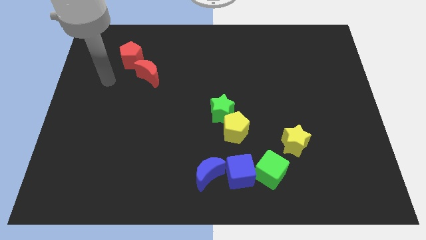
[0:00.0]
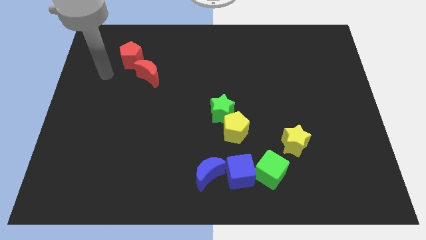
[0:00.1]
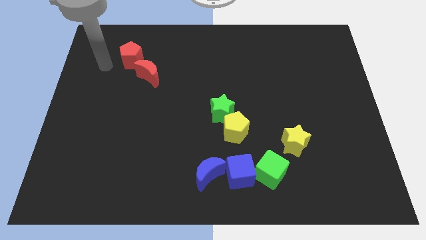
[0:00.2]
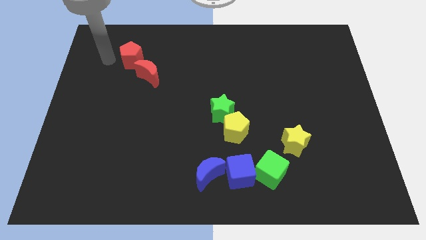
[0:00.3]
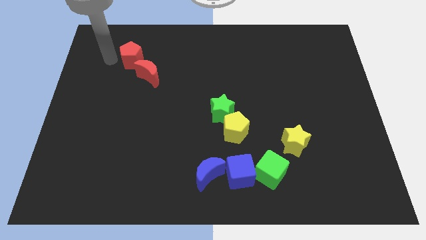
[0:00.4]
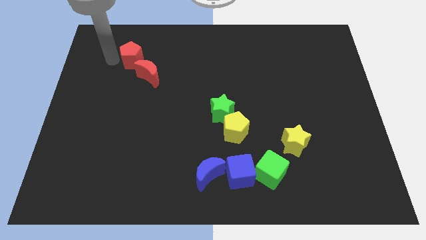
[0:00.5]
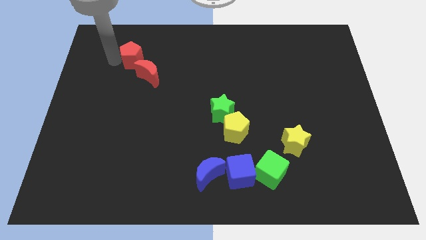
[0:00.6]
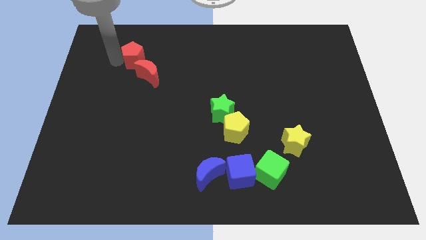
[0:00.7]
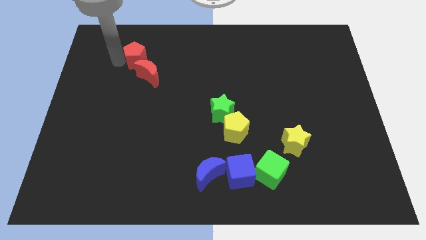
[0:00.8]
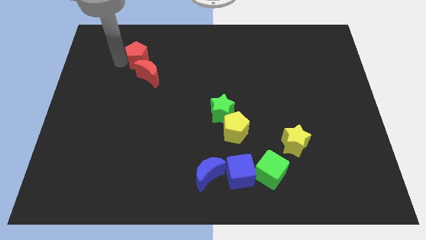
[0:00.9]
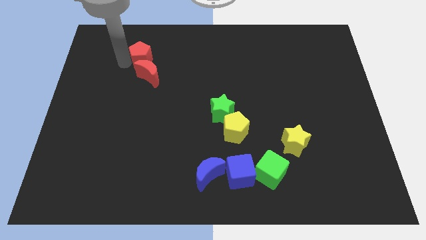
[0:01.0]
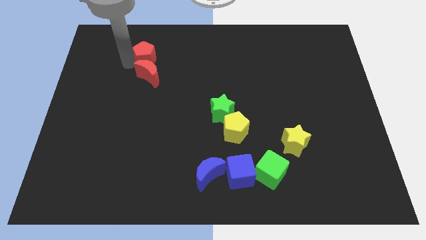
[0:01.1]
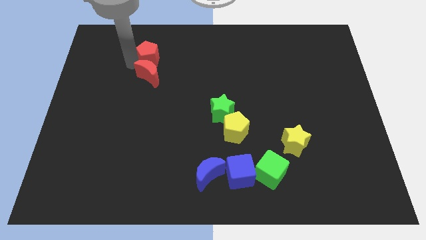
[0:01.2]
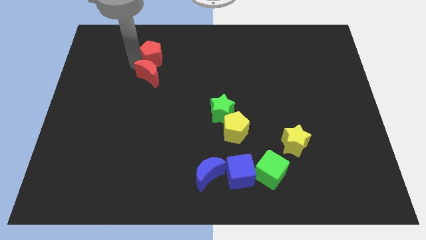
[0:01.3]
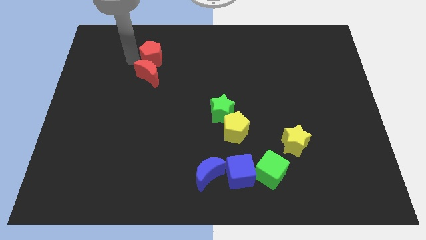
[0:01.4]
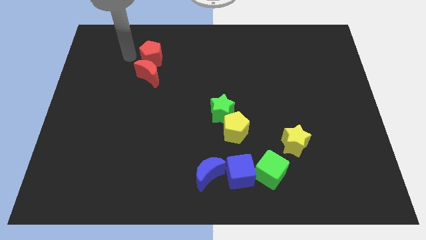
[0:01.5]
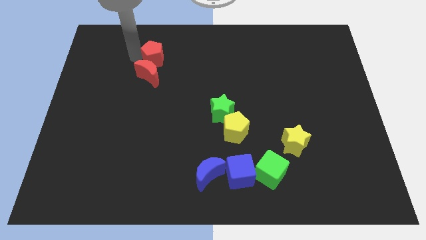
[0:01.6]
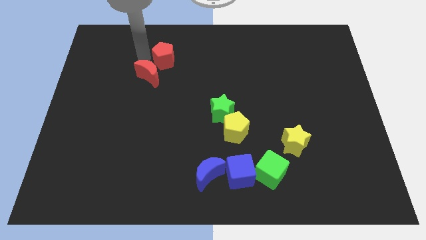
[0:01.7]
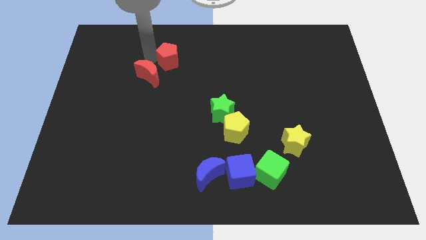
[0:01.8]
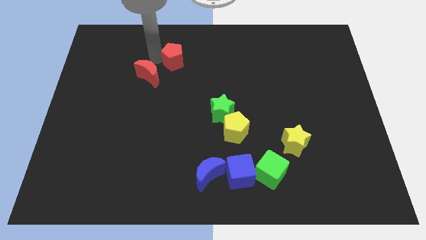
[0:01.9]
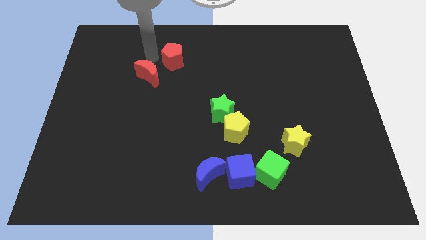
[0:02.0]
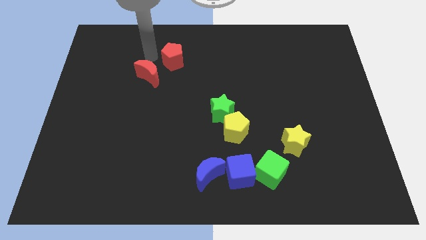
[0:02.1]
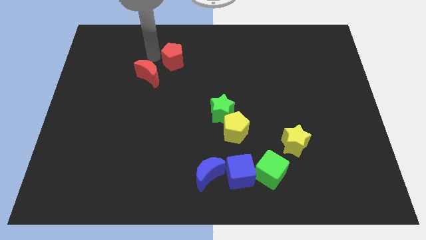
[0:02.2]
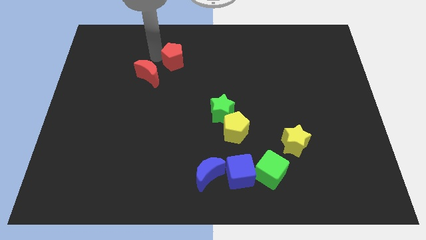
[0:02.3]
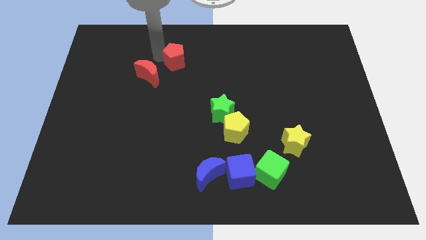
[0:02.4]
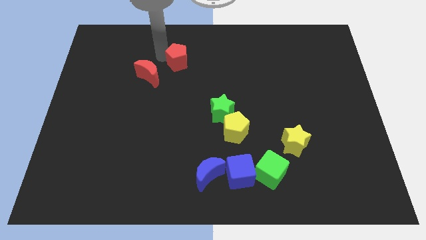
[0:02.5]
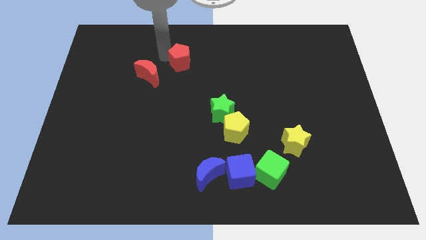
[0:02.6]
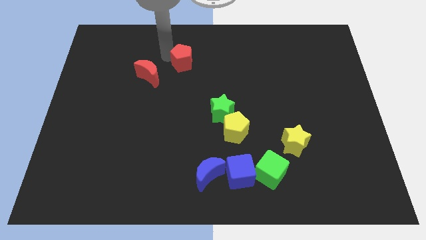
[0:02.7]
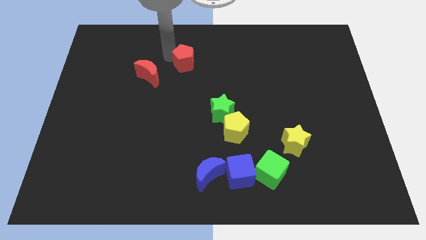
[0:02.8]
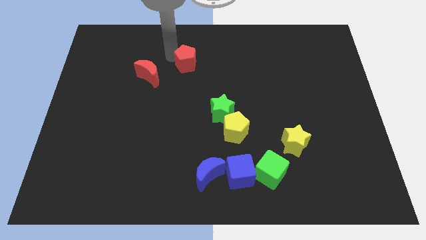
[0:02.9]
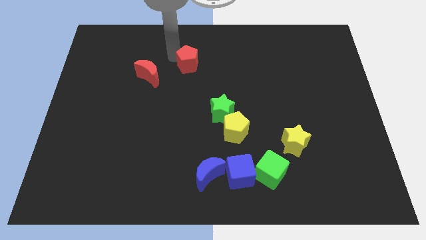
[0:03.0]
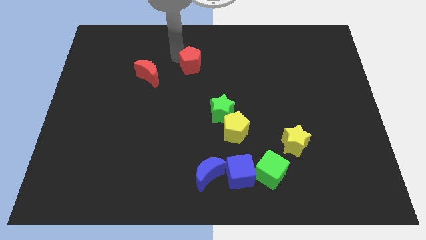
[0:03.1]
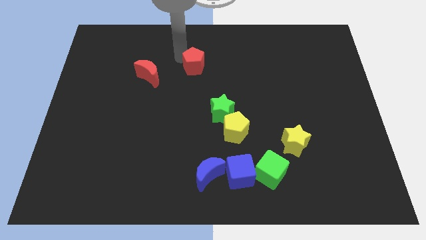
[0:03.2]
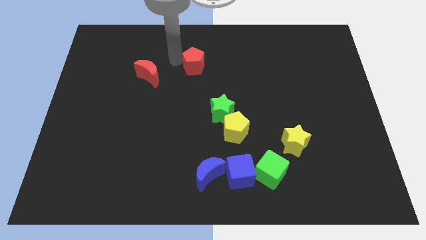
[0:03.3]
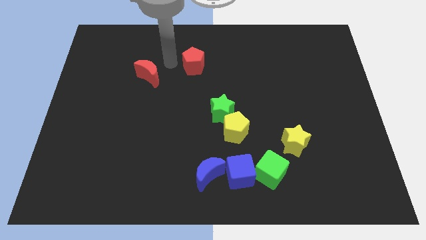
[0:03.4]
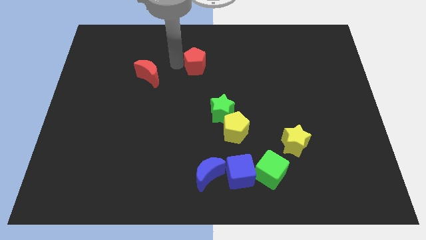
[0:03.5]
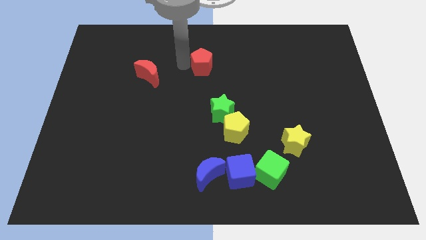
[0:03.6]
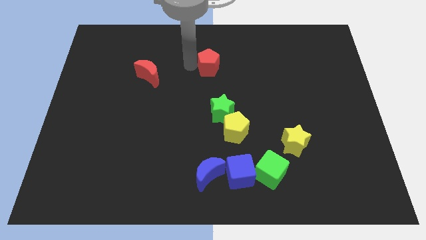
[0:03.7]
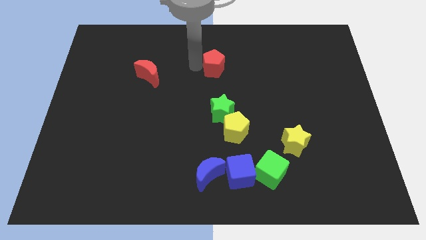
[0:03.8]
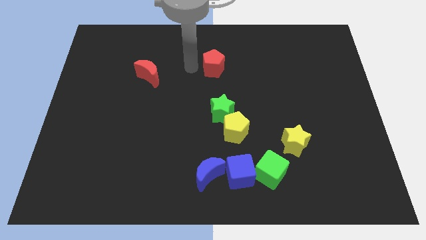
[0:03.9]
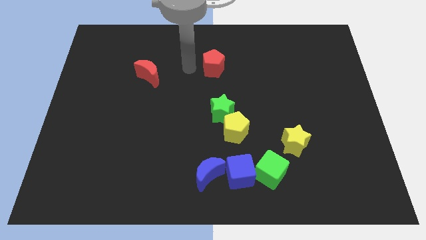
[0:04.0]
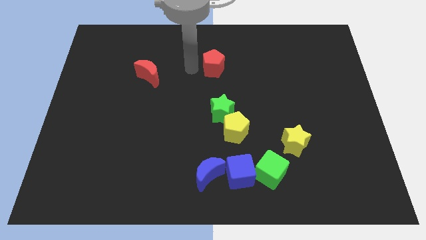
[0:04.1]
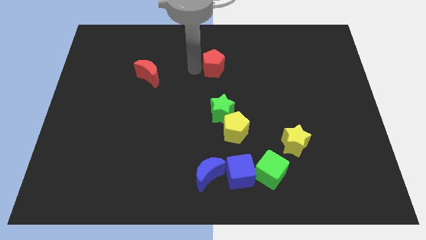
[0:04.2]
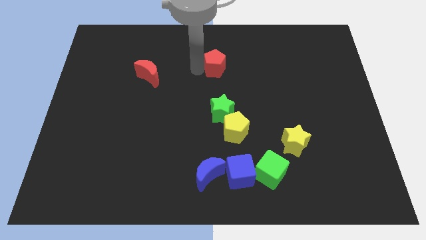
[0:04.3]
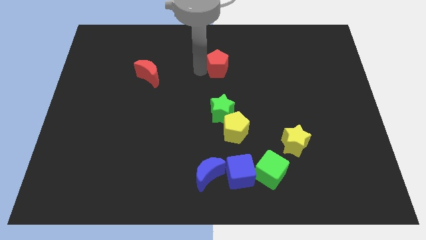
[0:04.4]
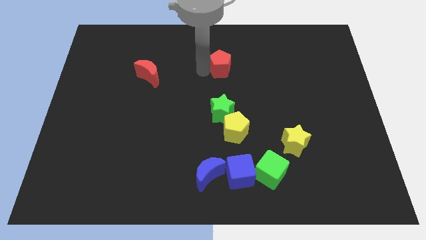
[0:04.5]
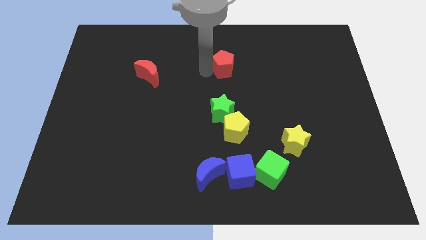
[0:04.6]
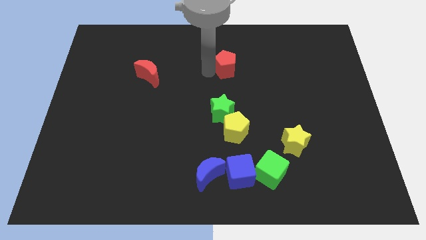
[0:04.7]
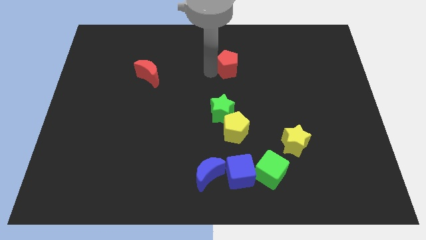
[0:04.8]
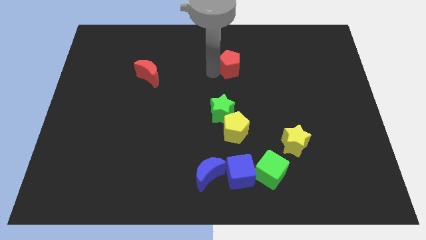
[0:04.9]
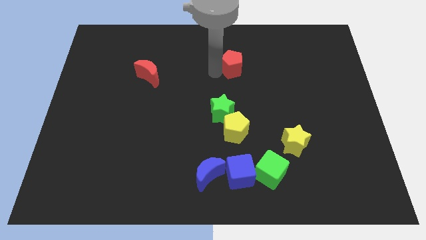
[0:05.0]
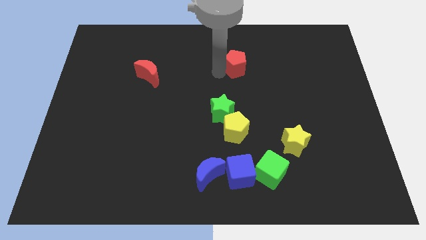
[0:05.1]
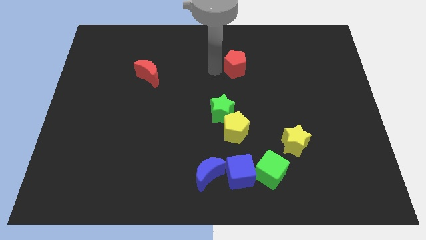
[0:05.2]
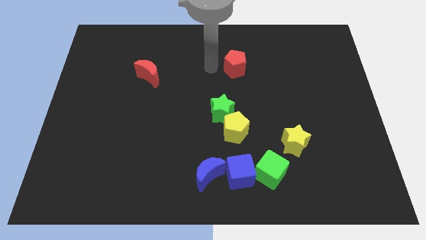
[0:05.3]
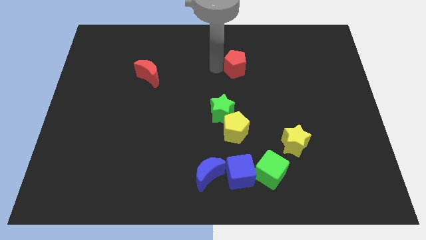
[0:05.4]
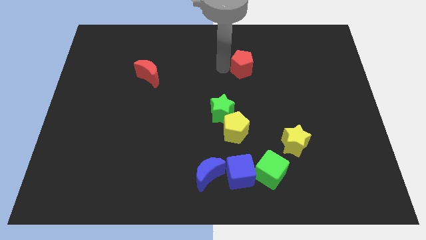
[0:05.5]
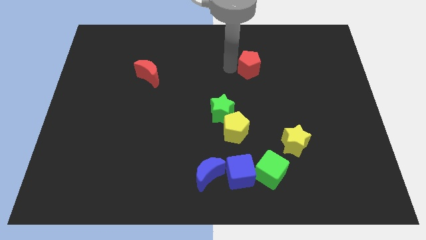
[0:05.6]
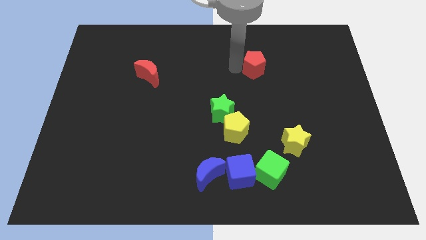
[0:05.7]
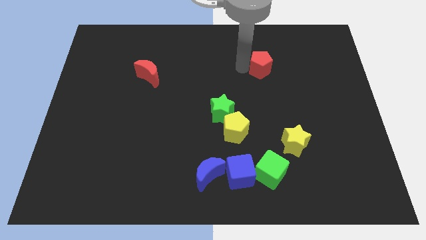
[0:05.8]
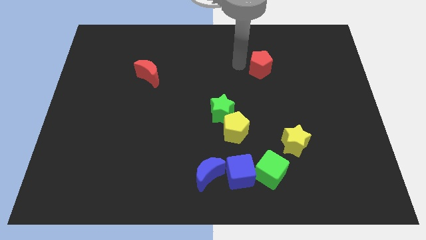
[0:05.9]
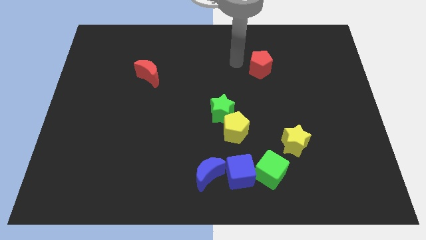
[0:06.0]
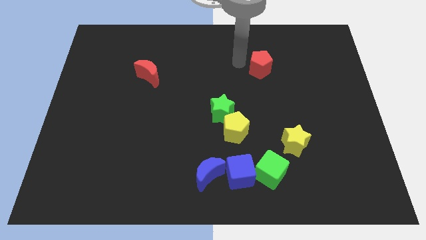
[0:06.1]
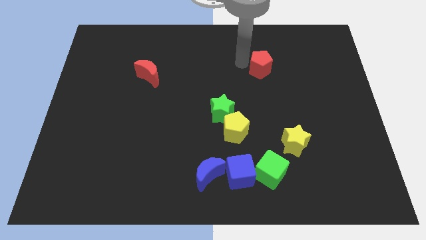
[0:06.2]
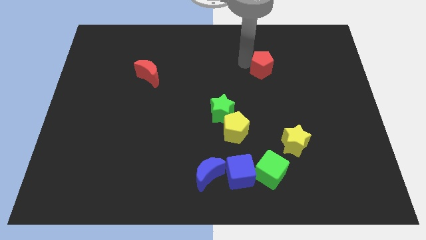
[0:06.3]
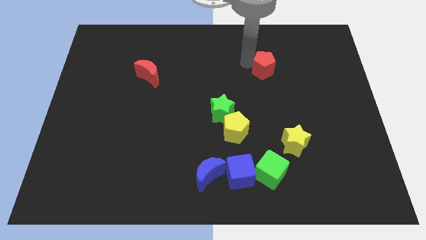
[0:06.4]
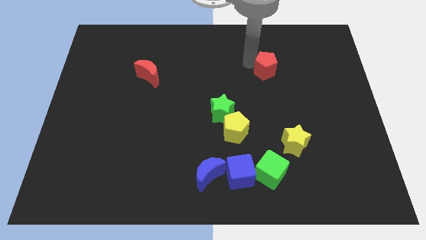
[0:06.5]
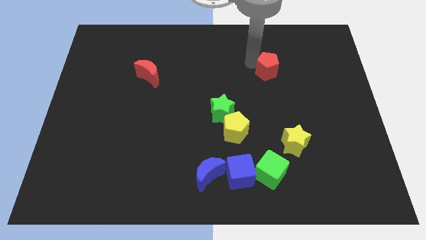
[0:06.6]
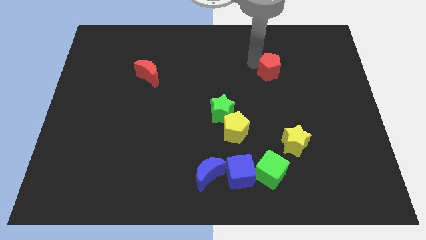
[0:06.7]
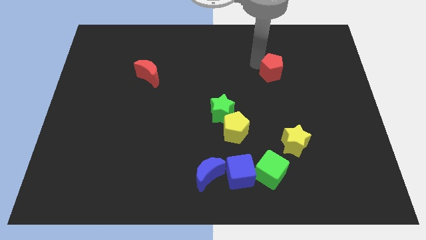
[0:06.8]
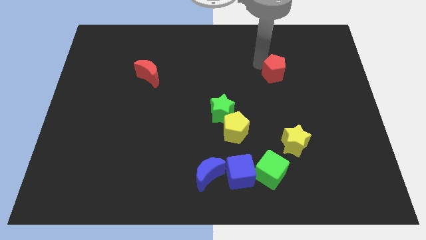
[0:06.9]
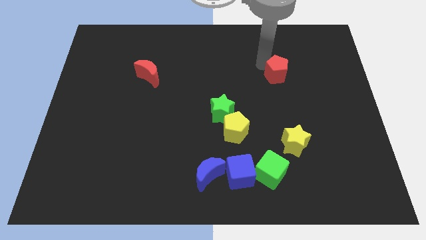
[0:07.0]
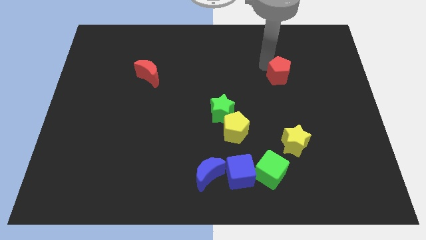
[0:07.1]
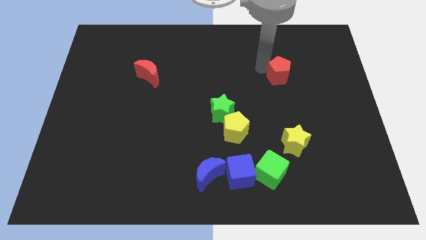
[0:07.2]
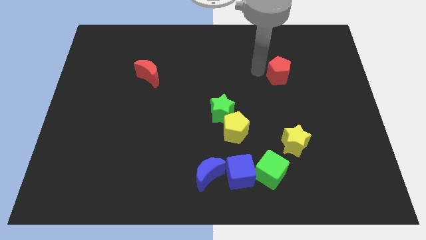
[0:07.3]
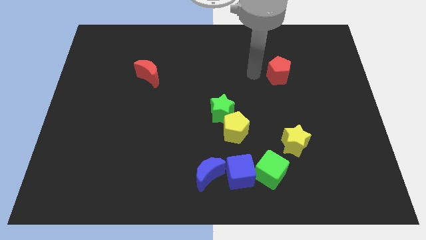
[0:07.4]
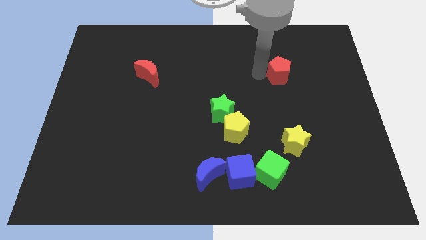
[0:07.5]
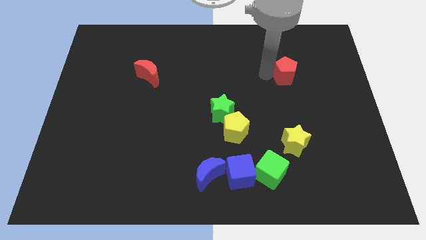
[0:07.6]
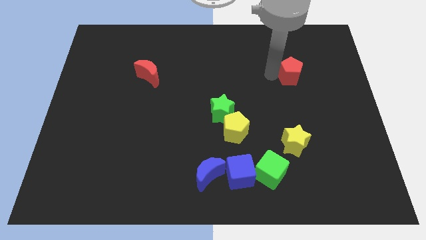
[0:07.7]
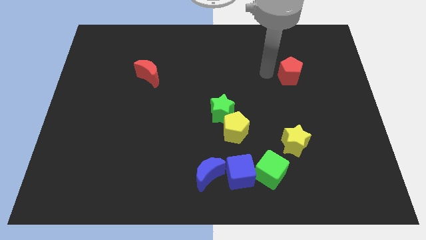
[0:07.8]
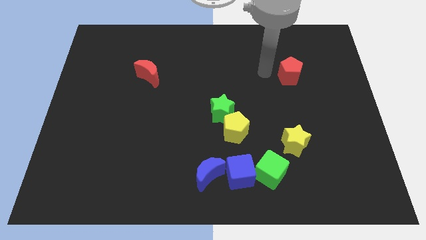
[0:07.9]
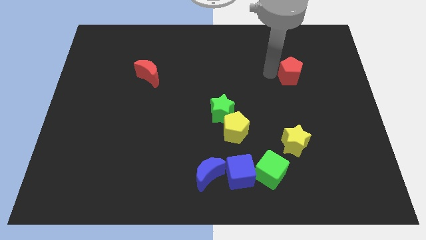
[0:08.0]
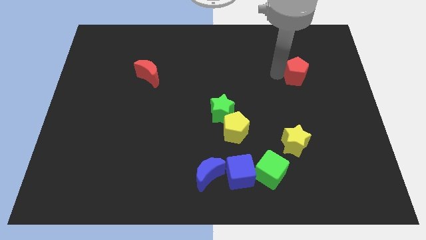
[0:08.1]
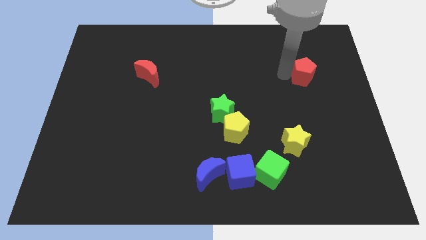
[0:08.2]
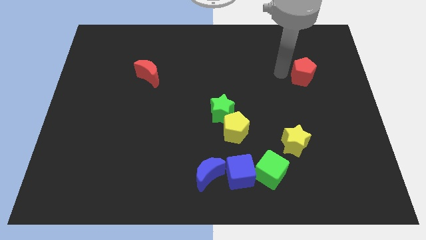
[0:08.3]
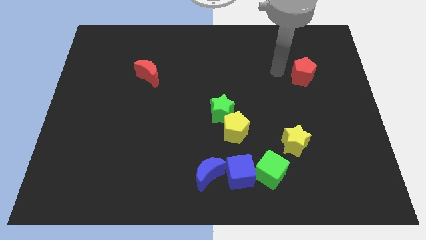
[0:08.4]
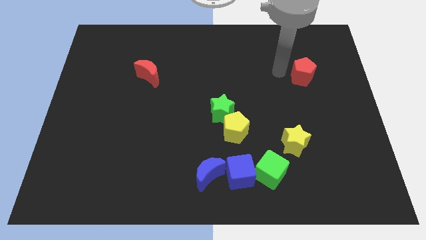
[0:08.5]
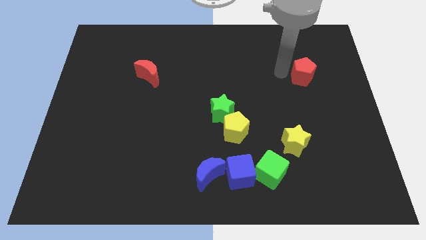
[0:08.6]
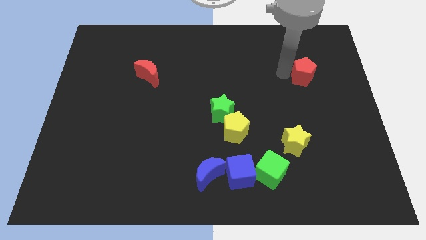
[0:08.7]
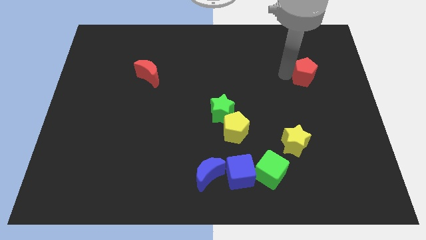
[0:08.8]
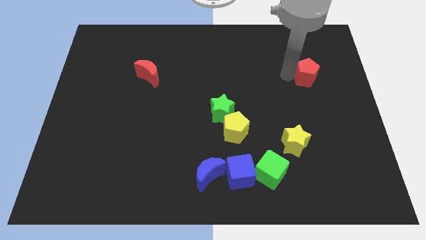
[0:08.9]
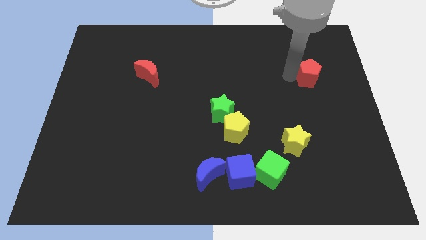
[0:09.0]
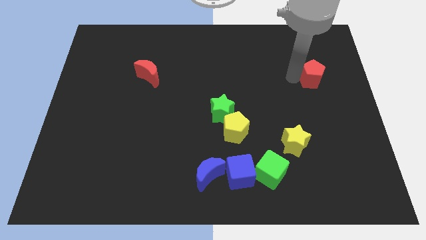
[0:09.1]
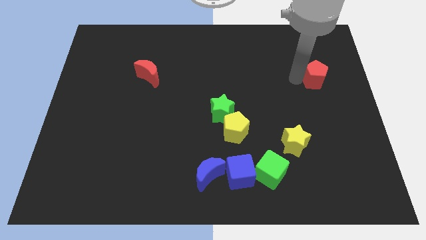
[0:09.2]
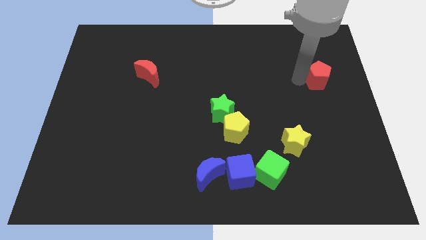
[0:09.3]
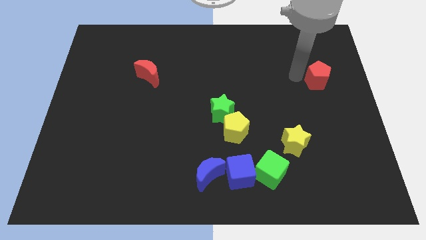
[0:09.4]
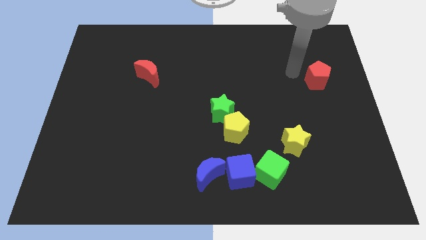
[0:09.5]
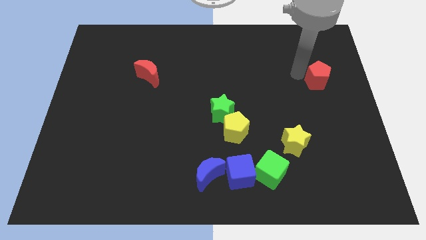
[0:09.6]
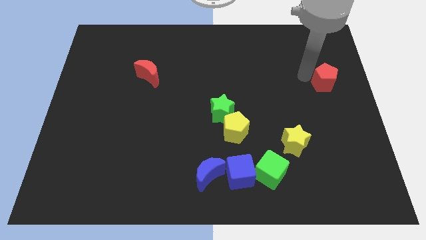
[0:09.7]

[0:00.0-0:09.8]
put the red pentagon to the right side
